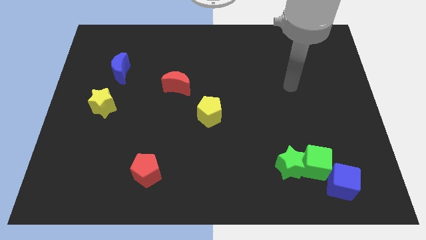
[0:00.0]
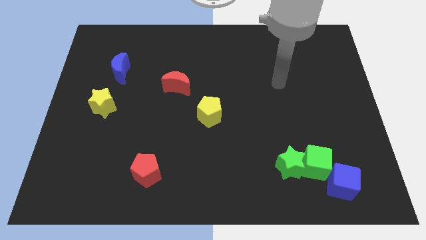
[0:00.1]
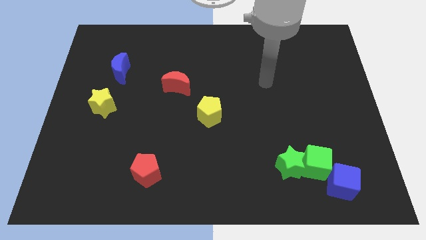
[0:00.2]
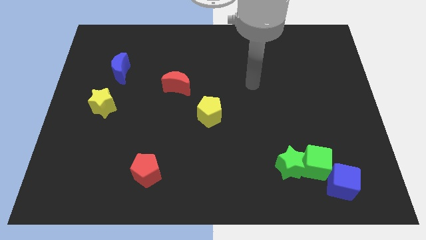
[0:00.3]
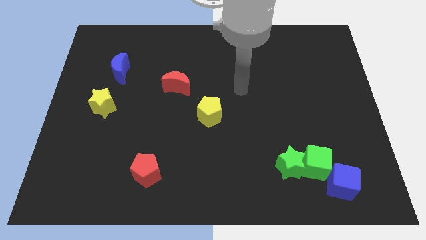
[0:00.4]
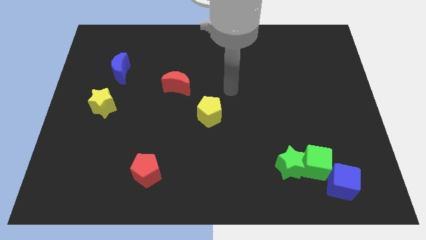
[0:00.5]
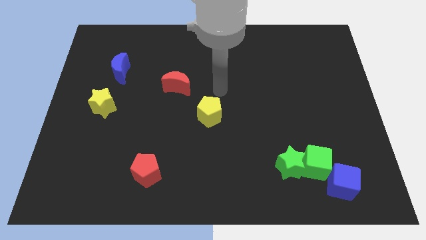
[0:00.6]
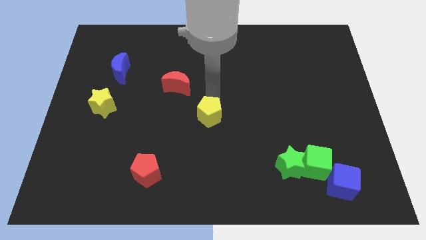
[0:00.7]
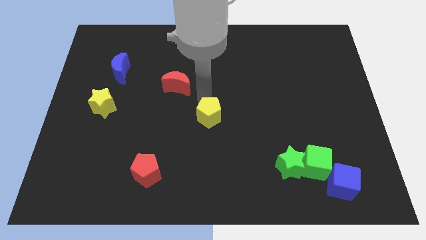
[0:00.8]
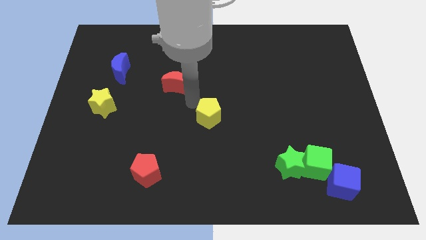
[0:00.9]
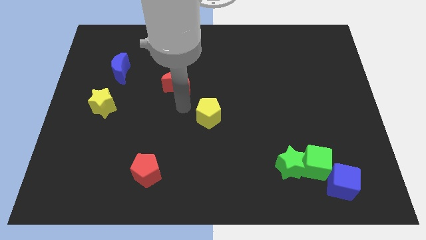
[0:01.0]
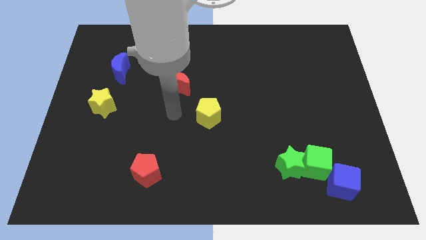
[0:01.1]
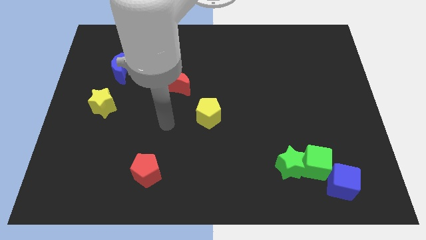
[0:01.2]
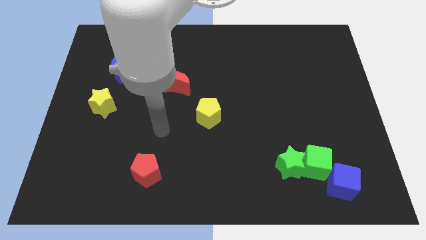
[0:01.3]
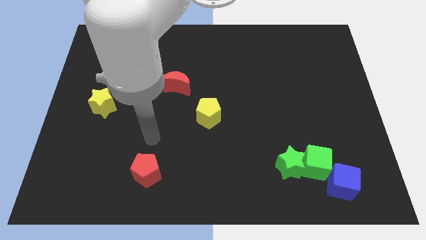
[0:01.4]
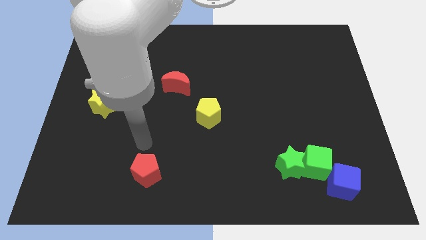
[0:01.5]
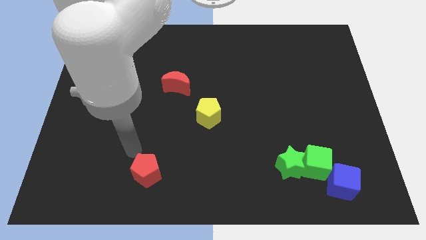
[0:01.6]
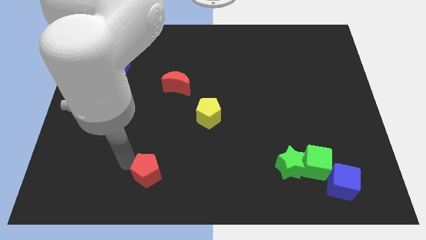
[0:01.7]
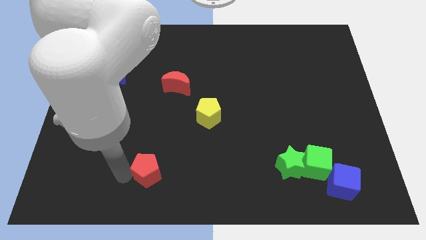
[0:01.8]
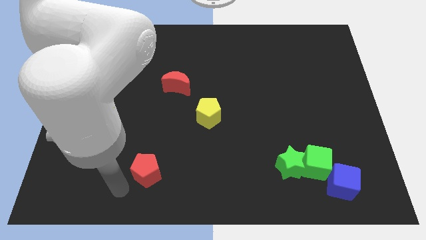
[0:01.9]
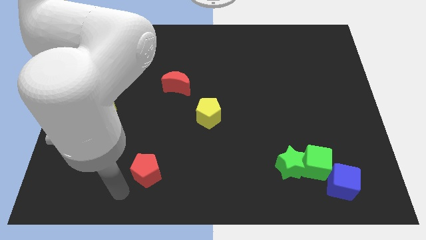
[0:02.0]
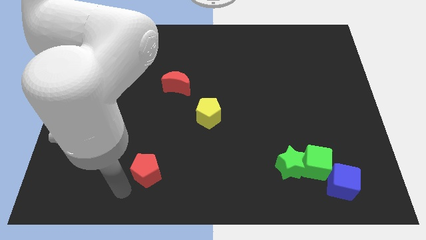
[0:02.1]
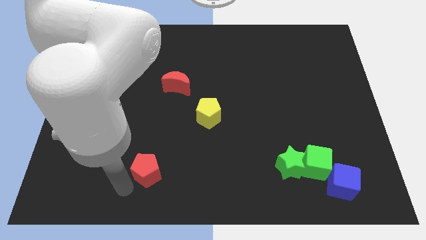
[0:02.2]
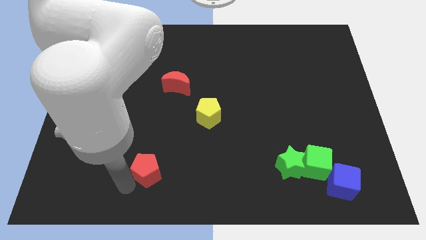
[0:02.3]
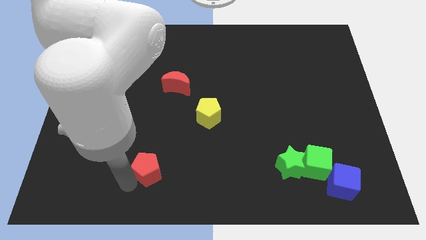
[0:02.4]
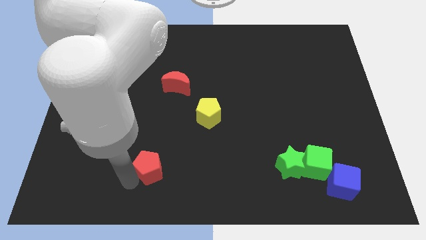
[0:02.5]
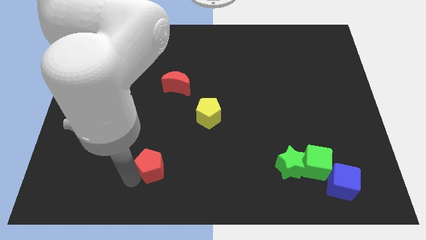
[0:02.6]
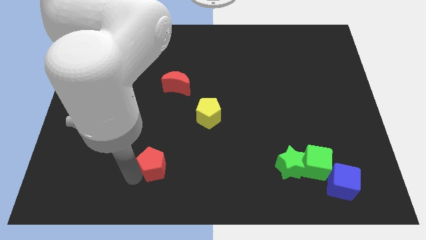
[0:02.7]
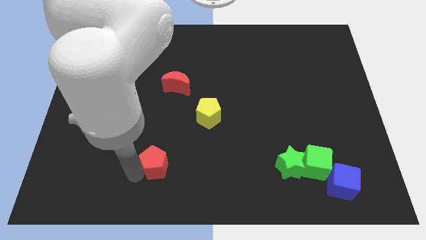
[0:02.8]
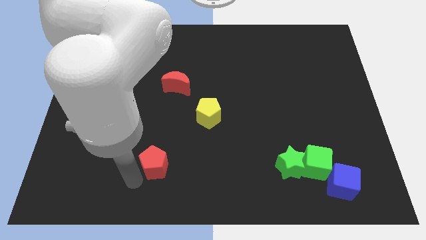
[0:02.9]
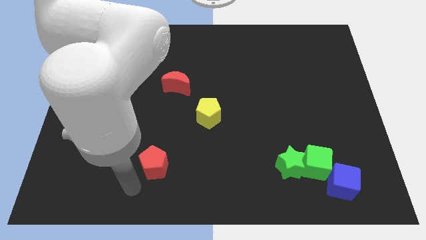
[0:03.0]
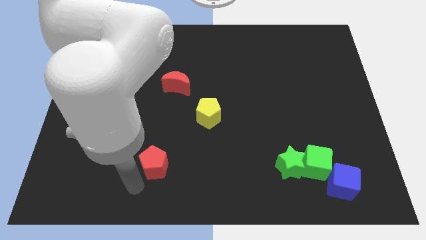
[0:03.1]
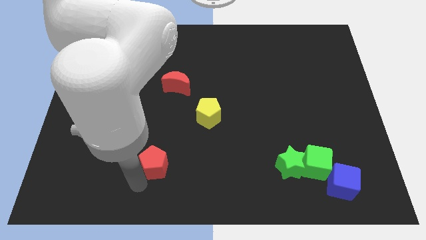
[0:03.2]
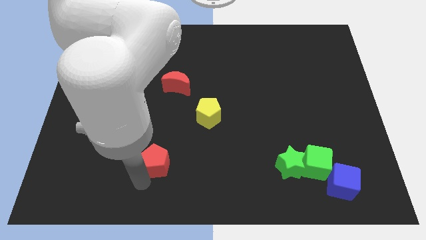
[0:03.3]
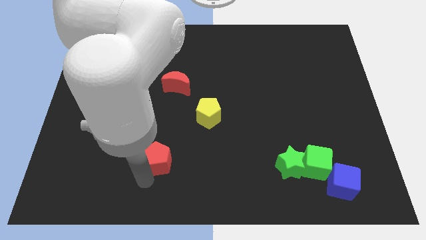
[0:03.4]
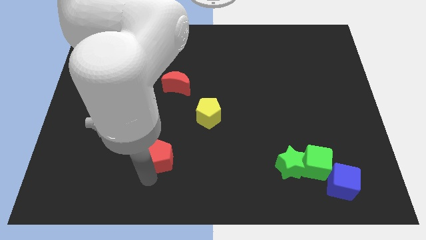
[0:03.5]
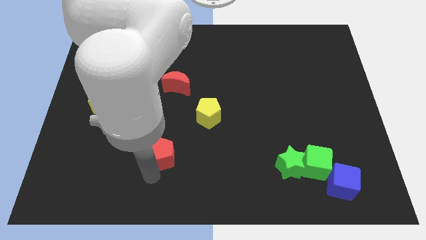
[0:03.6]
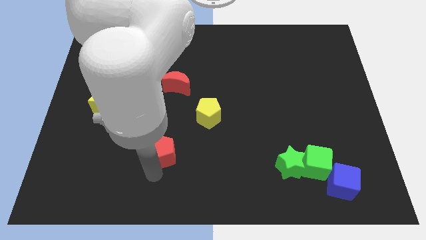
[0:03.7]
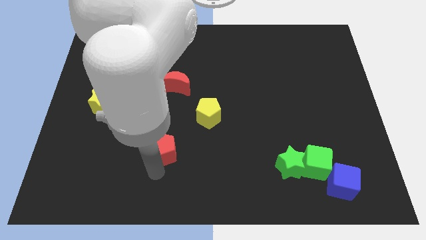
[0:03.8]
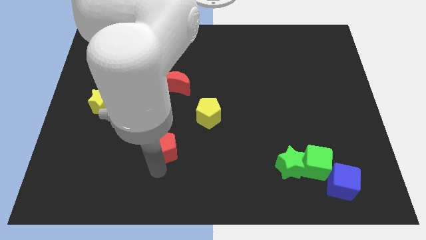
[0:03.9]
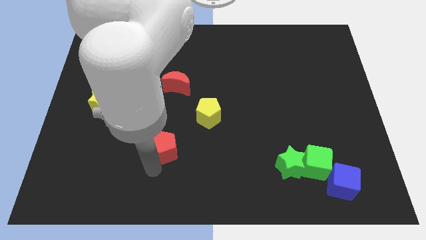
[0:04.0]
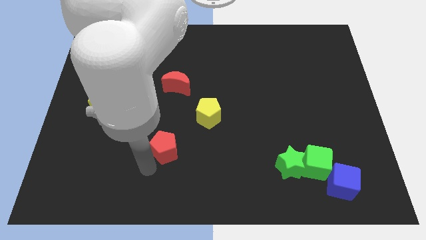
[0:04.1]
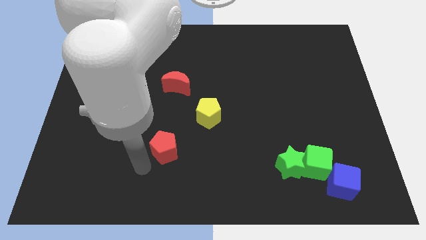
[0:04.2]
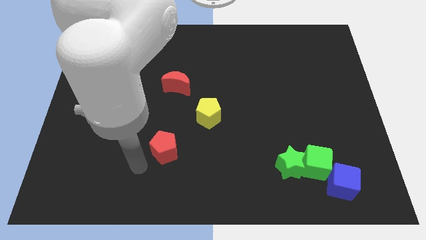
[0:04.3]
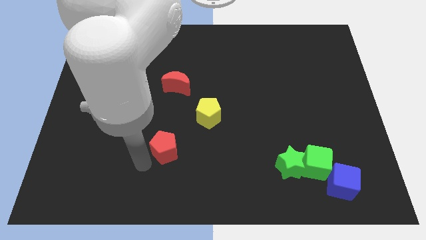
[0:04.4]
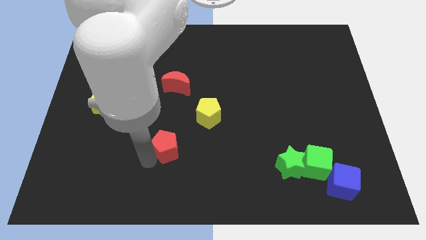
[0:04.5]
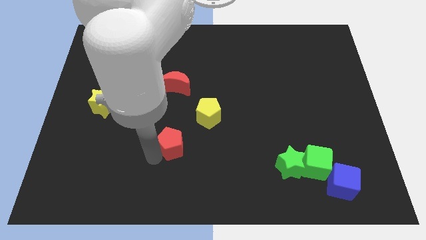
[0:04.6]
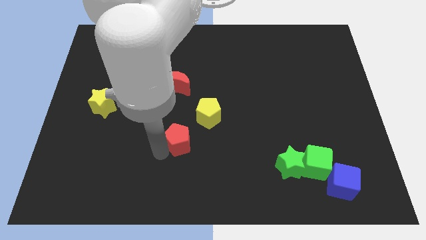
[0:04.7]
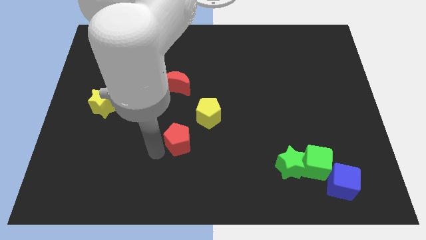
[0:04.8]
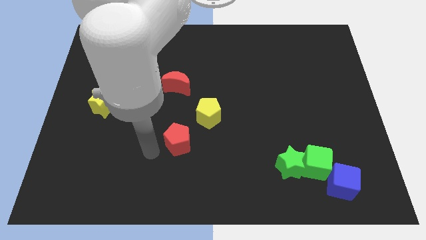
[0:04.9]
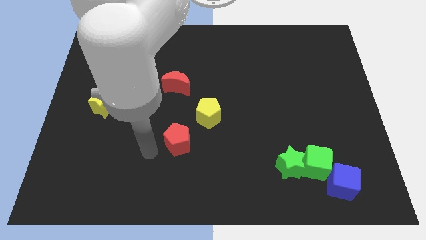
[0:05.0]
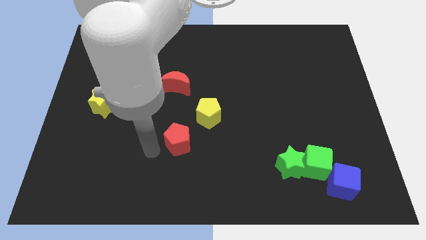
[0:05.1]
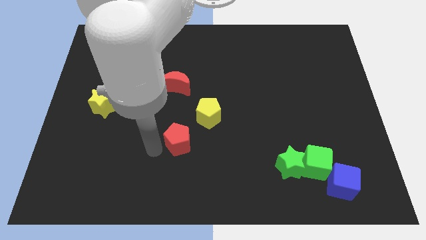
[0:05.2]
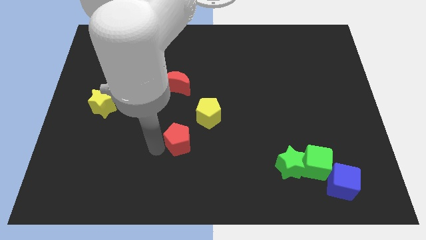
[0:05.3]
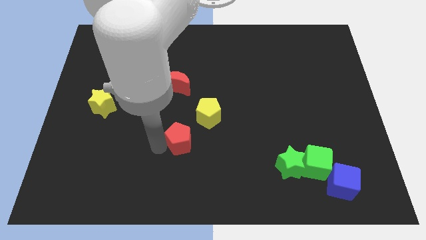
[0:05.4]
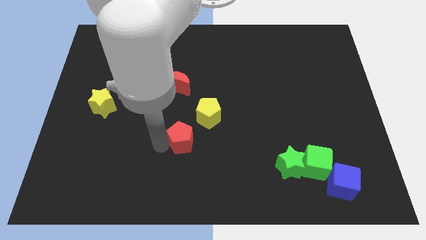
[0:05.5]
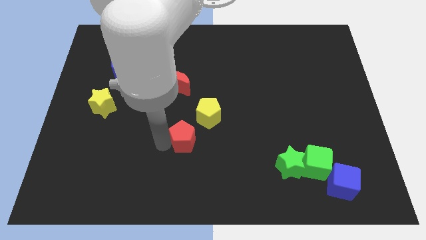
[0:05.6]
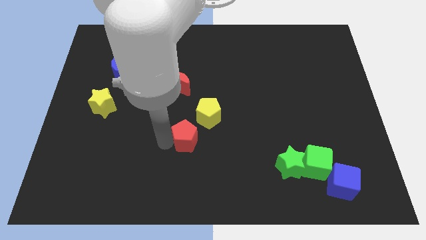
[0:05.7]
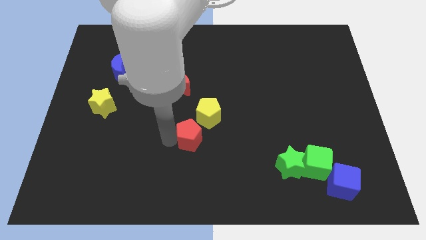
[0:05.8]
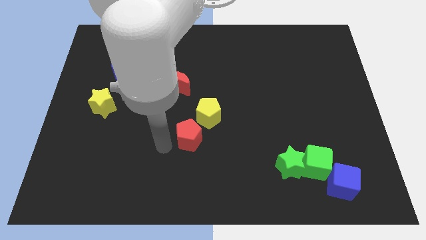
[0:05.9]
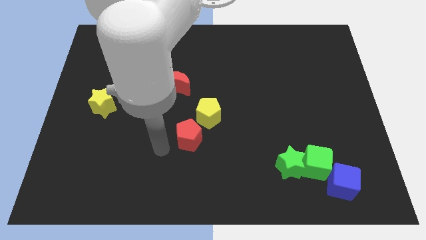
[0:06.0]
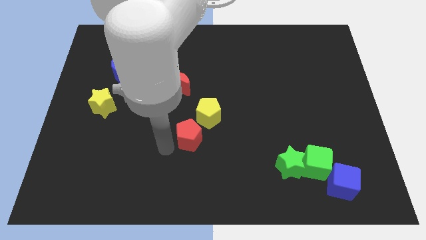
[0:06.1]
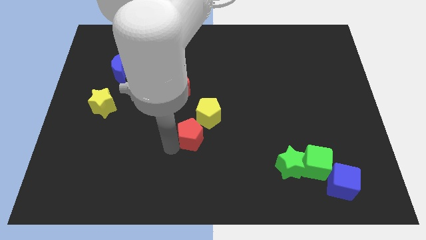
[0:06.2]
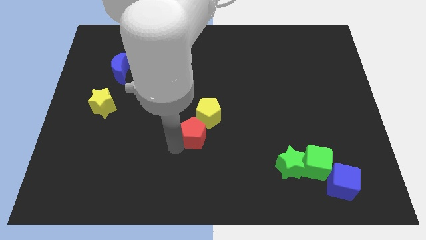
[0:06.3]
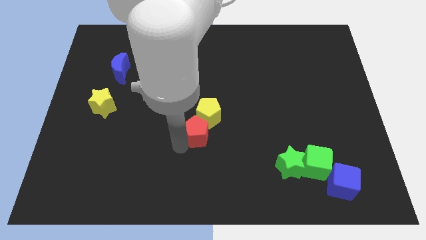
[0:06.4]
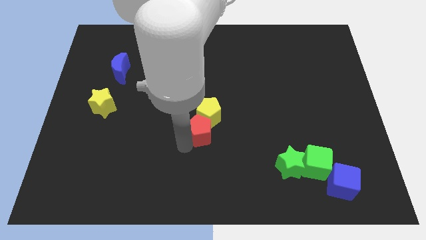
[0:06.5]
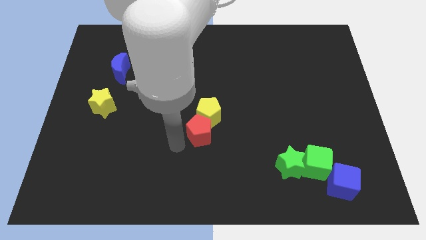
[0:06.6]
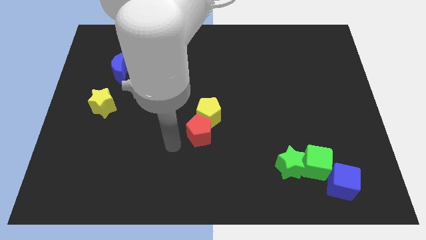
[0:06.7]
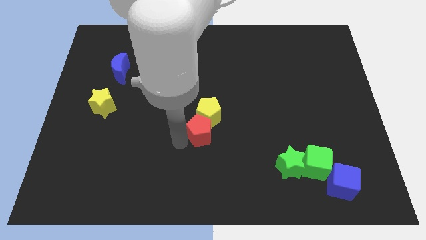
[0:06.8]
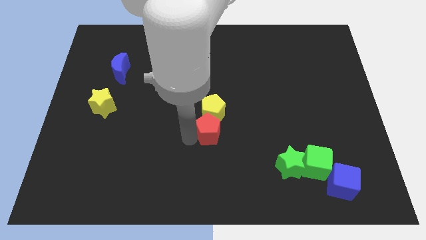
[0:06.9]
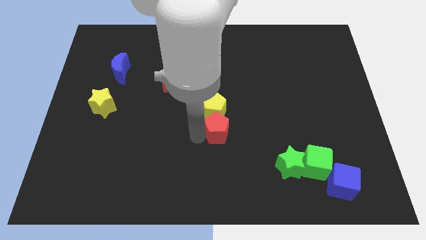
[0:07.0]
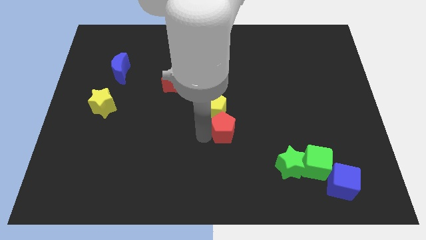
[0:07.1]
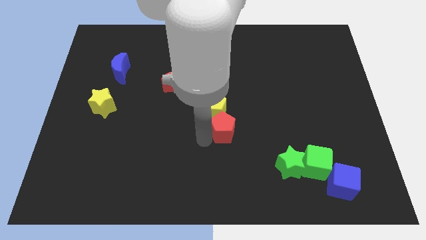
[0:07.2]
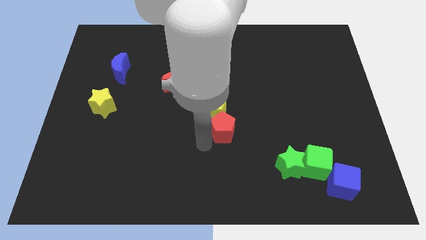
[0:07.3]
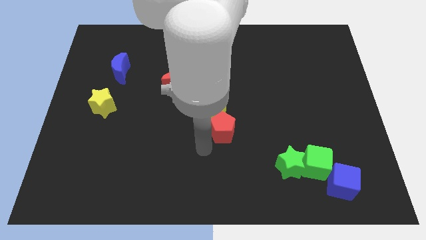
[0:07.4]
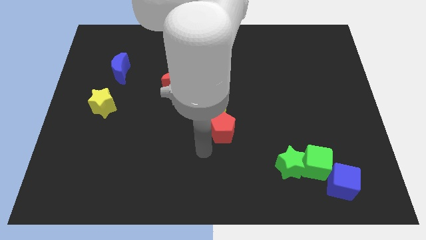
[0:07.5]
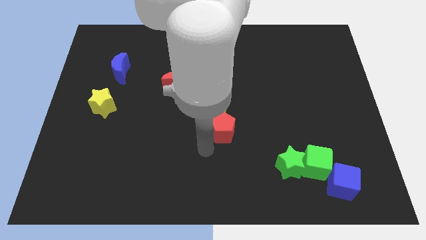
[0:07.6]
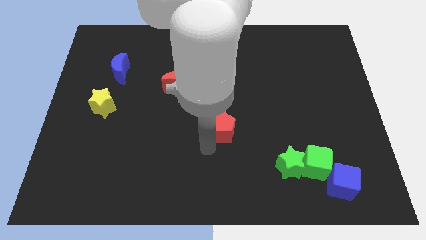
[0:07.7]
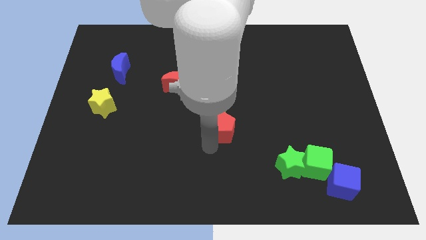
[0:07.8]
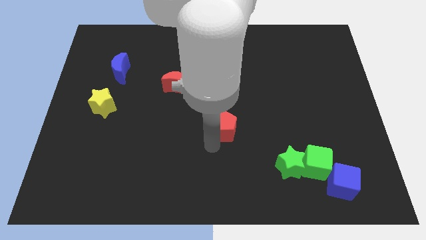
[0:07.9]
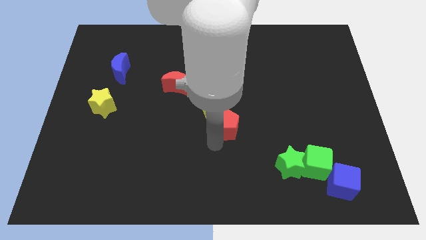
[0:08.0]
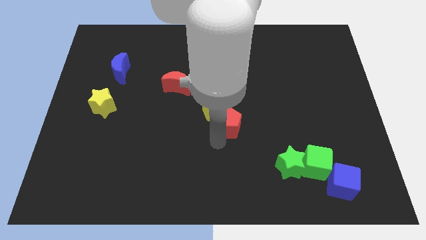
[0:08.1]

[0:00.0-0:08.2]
move the red pentagon diagonally upwards and to the right

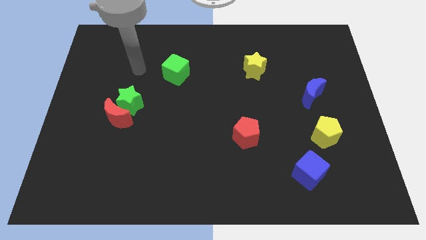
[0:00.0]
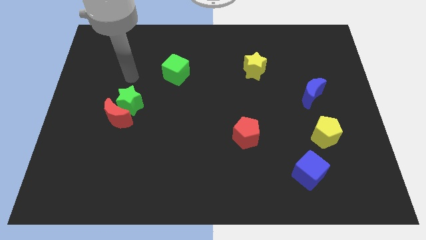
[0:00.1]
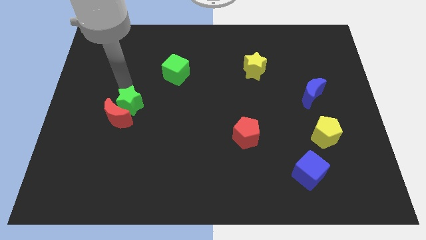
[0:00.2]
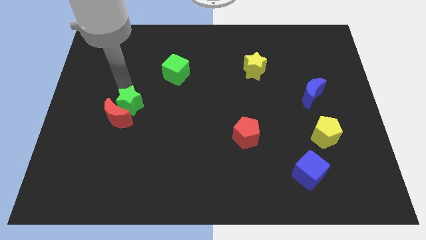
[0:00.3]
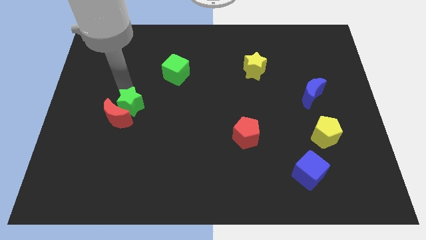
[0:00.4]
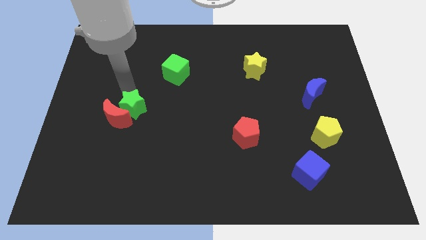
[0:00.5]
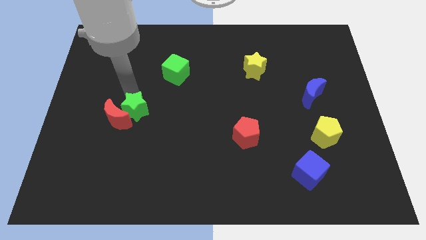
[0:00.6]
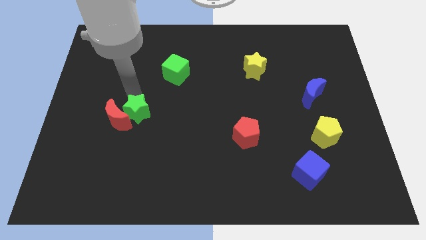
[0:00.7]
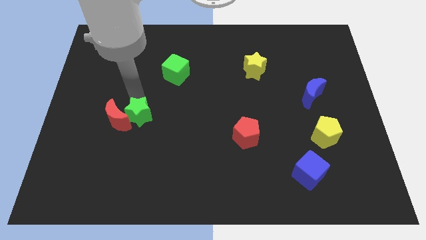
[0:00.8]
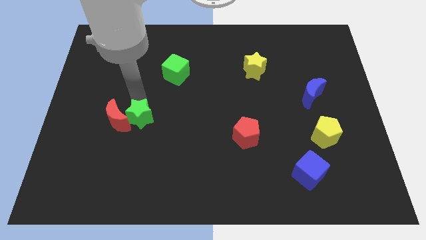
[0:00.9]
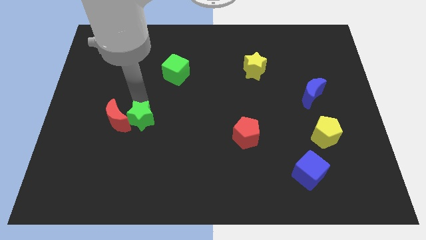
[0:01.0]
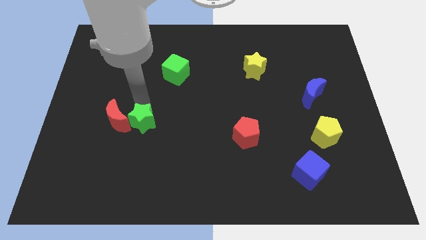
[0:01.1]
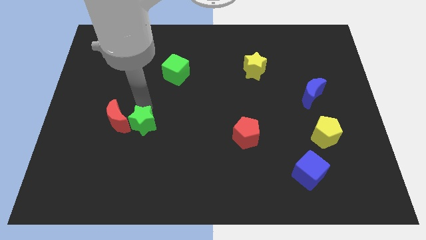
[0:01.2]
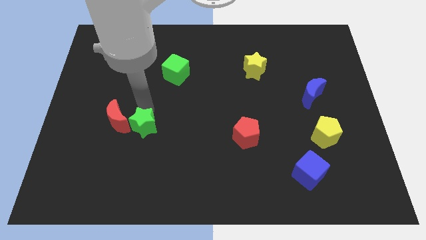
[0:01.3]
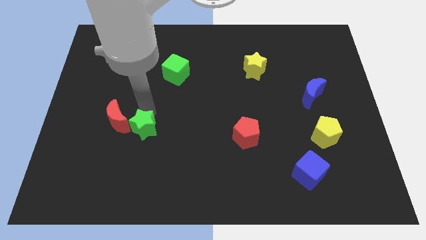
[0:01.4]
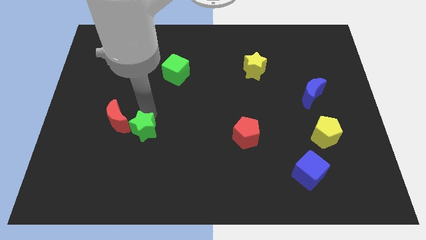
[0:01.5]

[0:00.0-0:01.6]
slightly slide the green star down
